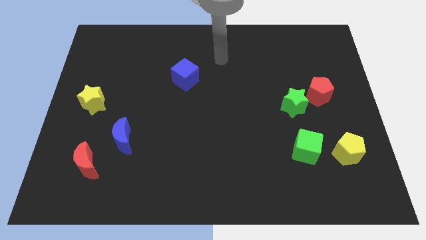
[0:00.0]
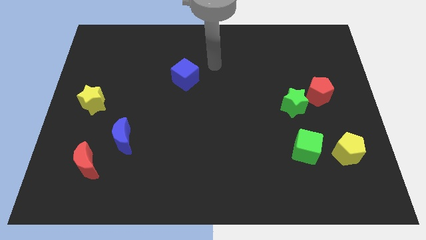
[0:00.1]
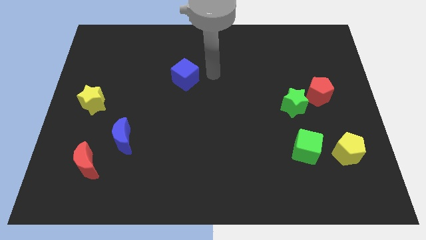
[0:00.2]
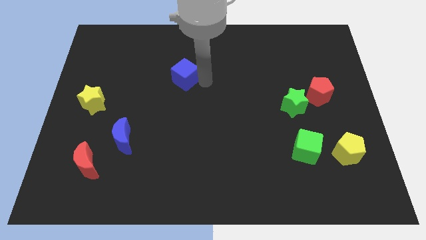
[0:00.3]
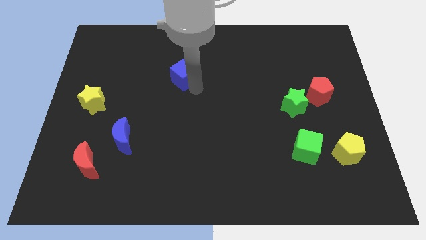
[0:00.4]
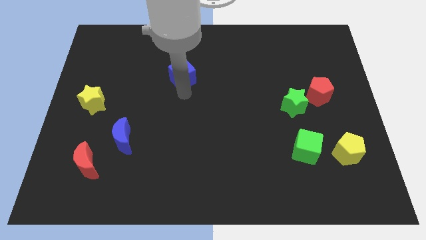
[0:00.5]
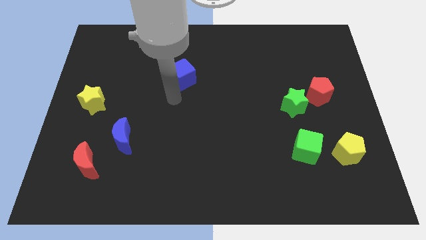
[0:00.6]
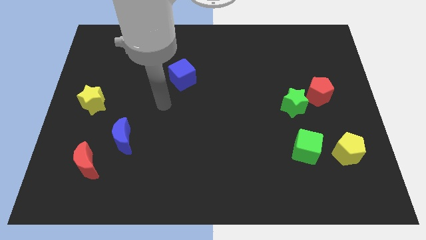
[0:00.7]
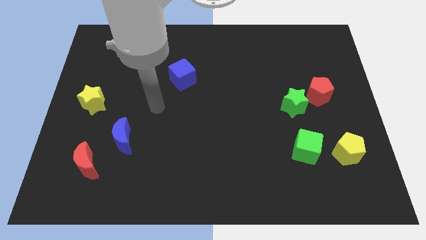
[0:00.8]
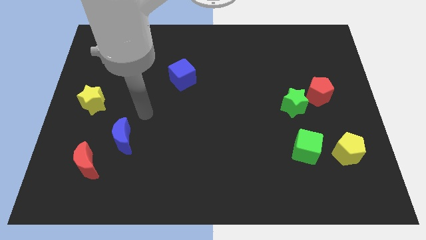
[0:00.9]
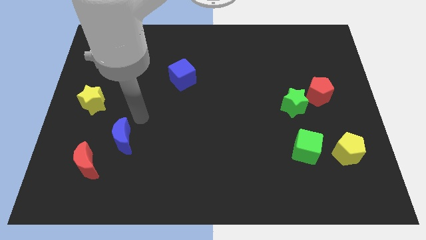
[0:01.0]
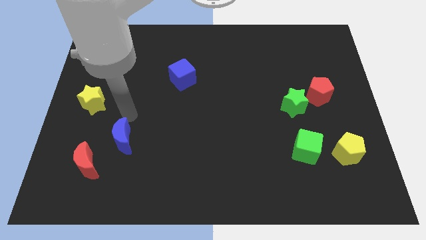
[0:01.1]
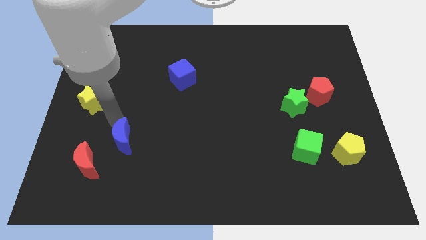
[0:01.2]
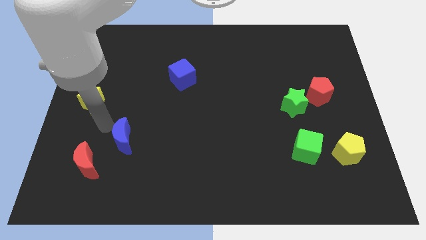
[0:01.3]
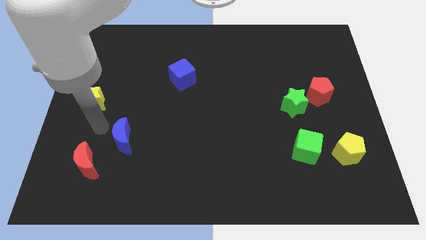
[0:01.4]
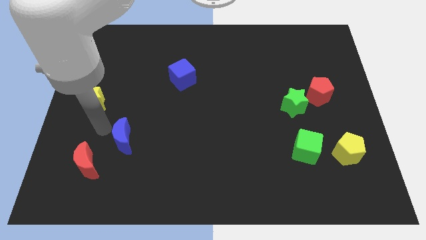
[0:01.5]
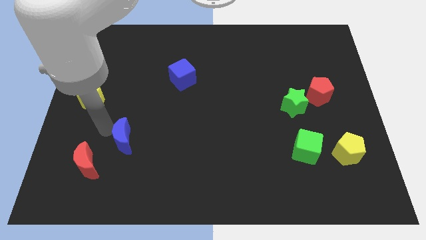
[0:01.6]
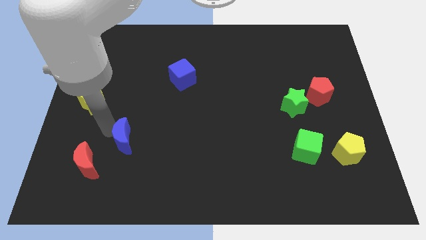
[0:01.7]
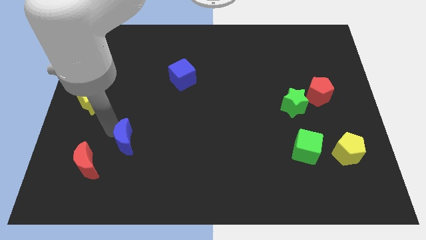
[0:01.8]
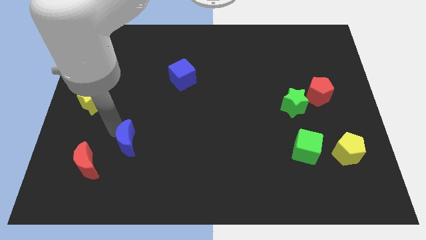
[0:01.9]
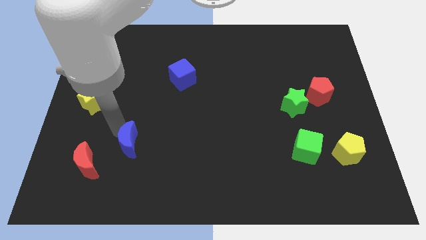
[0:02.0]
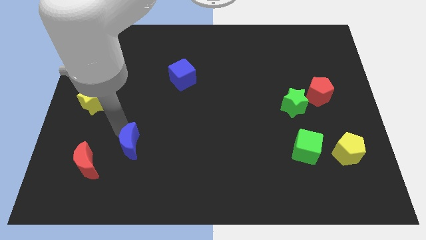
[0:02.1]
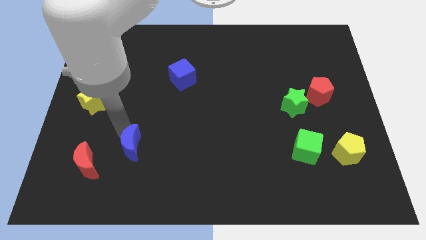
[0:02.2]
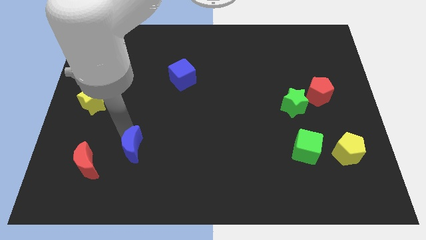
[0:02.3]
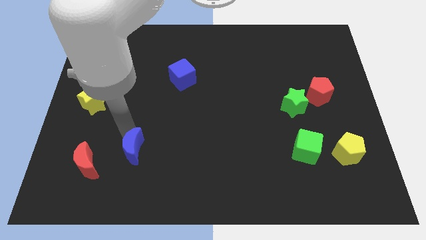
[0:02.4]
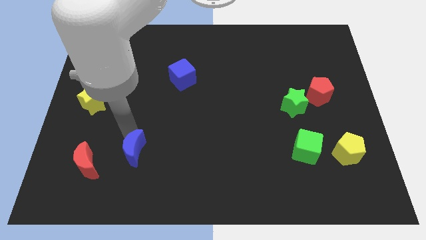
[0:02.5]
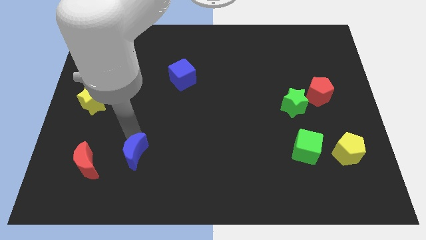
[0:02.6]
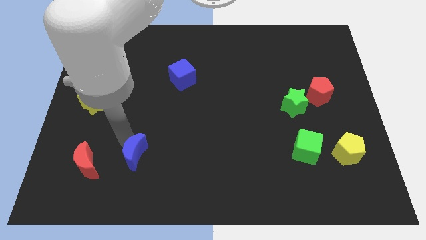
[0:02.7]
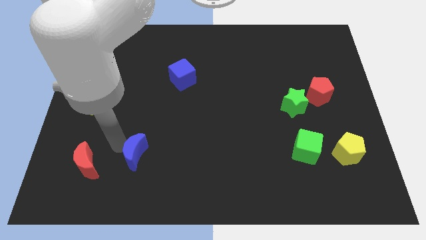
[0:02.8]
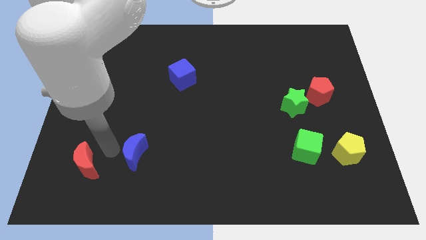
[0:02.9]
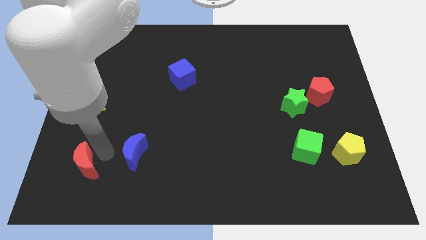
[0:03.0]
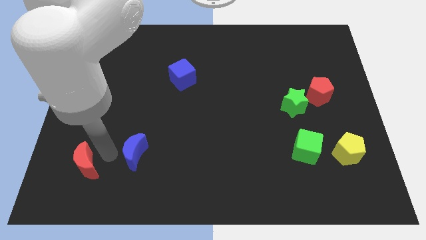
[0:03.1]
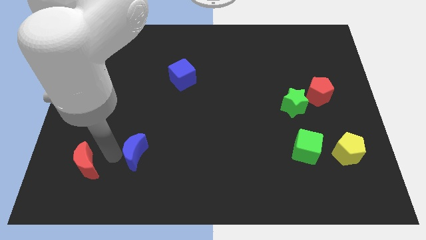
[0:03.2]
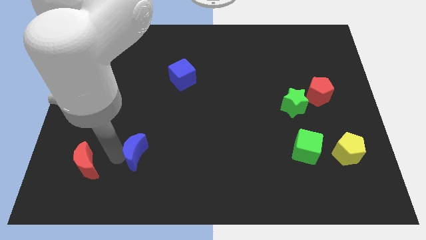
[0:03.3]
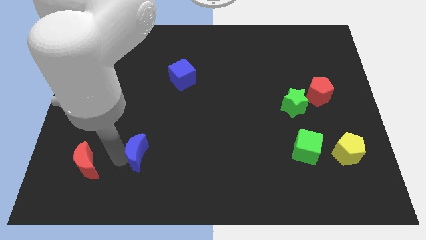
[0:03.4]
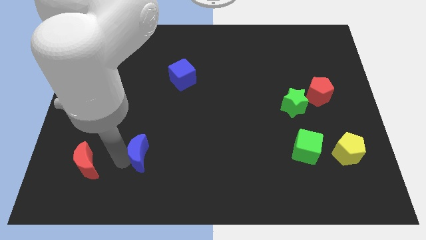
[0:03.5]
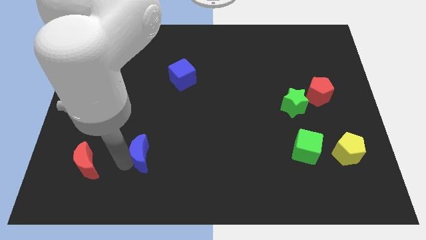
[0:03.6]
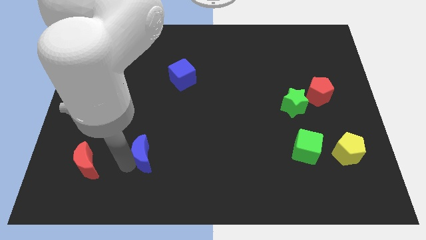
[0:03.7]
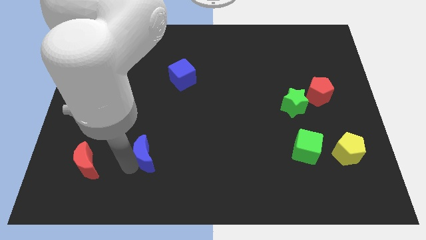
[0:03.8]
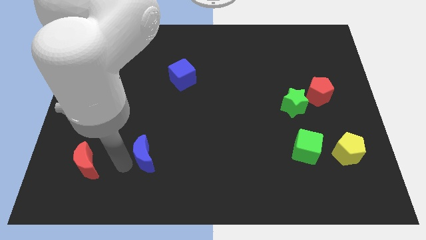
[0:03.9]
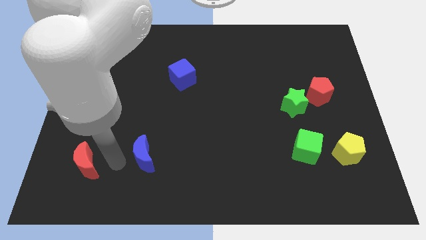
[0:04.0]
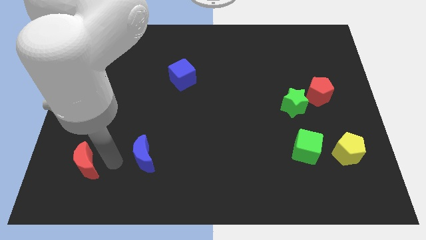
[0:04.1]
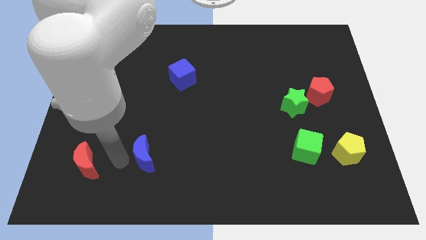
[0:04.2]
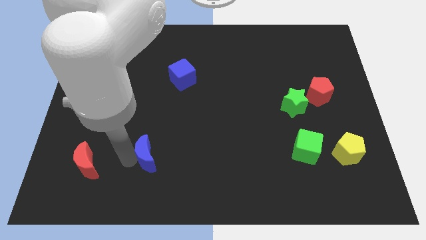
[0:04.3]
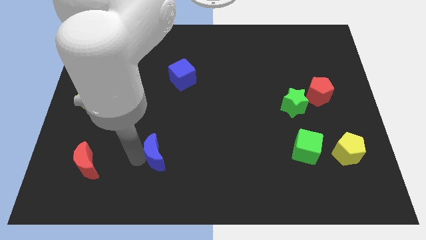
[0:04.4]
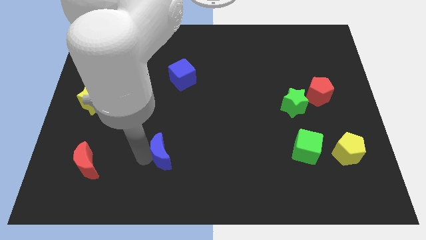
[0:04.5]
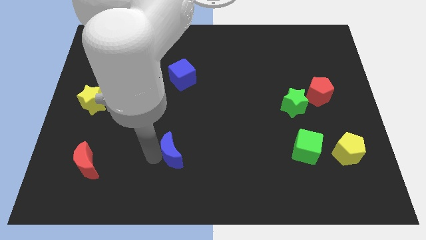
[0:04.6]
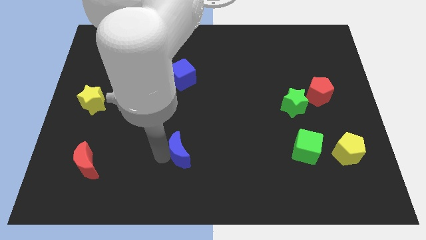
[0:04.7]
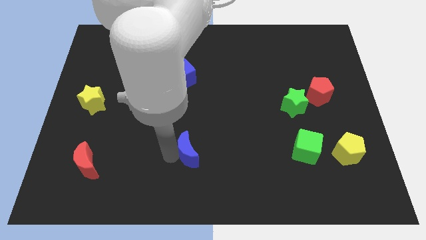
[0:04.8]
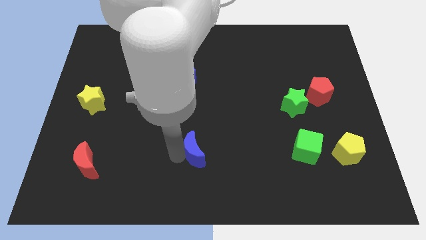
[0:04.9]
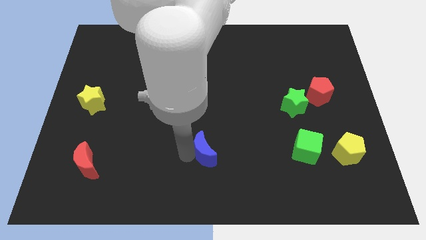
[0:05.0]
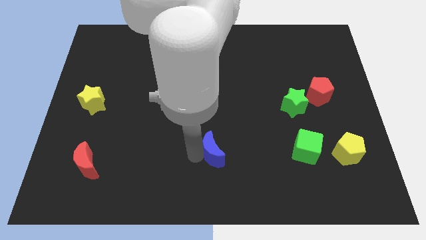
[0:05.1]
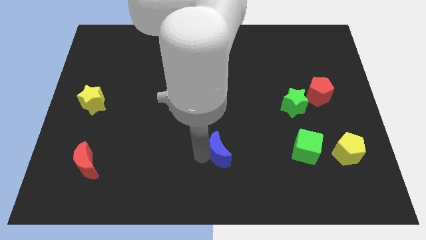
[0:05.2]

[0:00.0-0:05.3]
move the blue moon right

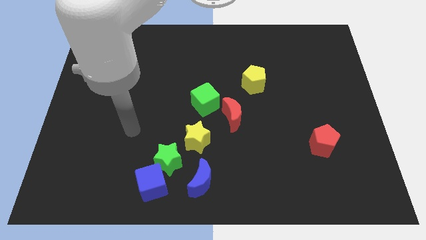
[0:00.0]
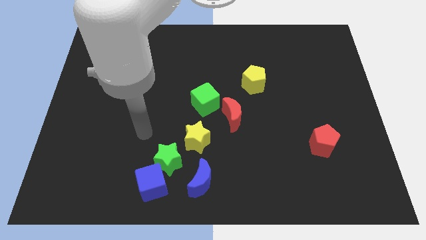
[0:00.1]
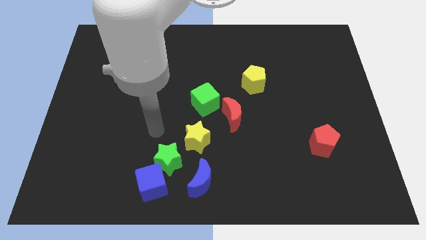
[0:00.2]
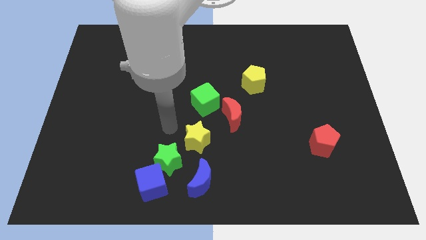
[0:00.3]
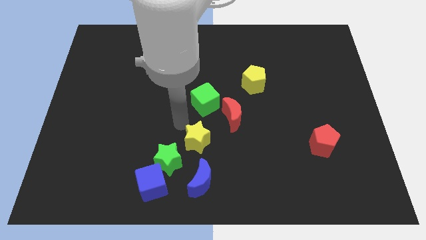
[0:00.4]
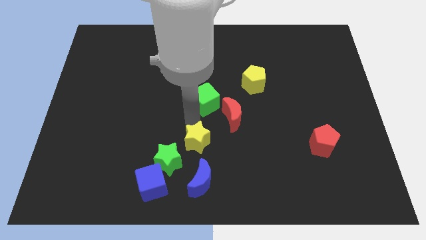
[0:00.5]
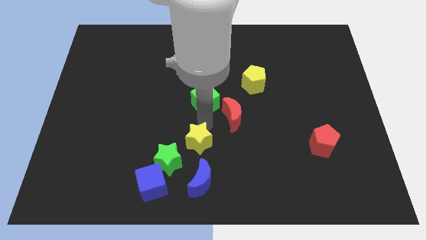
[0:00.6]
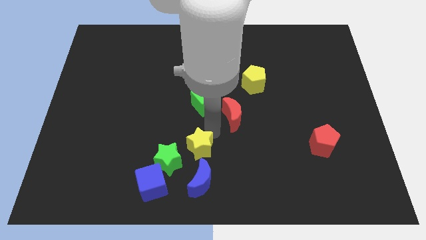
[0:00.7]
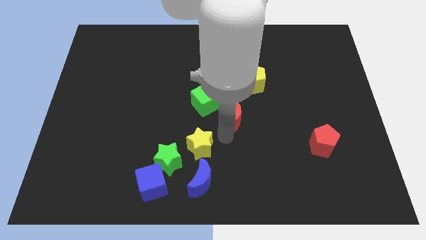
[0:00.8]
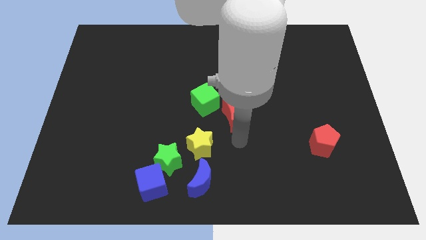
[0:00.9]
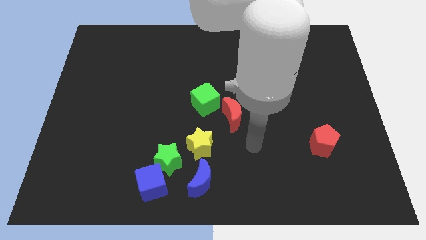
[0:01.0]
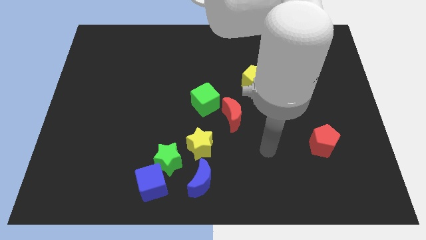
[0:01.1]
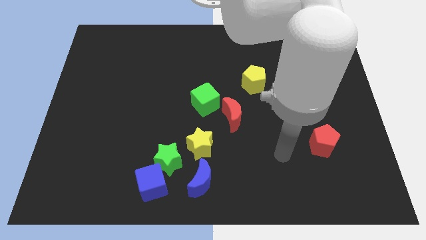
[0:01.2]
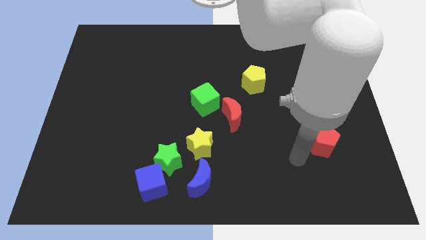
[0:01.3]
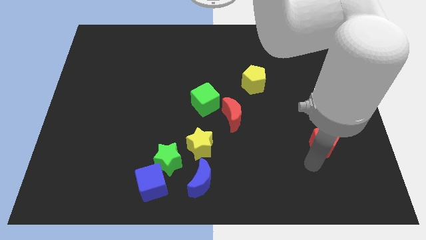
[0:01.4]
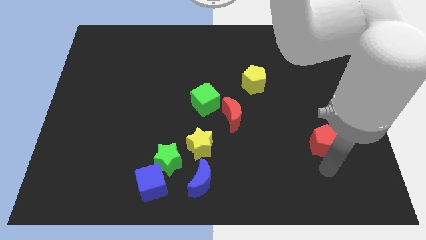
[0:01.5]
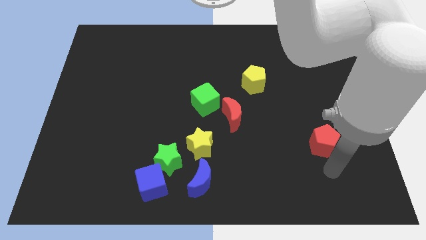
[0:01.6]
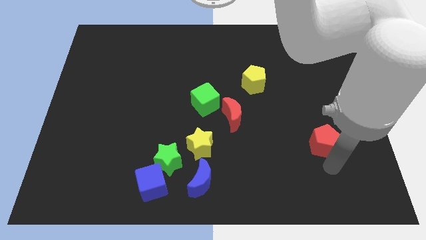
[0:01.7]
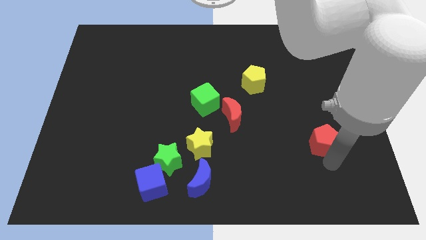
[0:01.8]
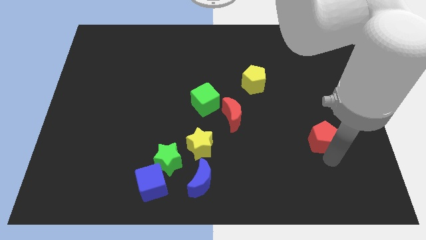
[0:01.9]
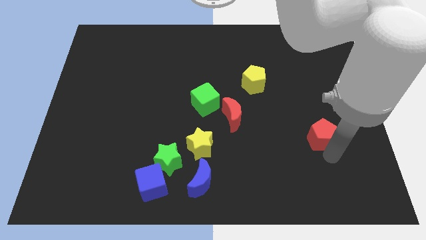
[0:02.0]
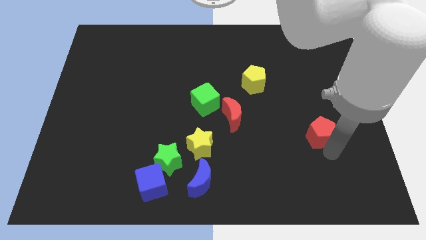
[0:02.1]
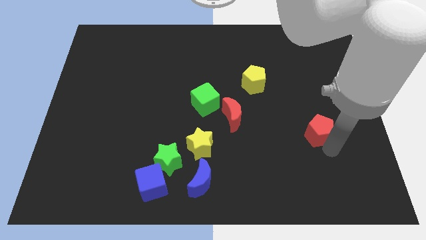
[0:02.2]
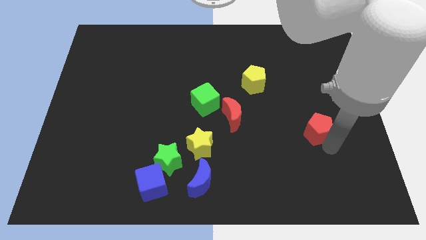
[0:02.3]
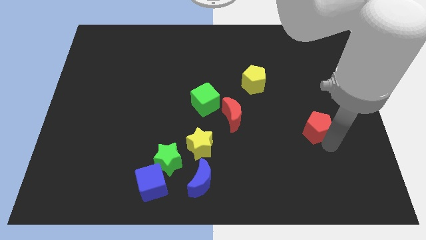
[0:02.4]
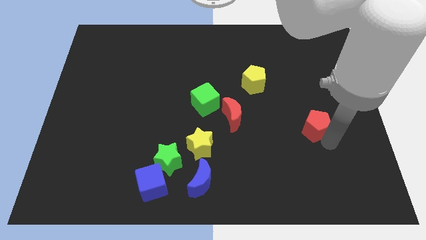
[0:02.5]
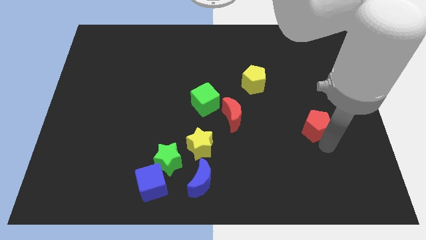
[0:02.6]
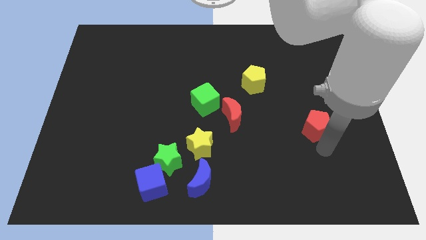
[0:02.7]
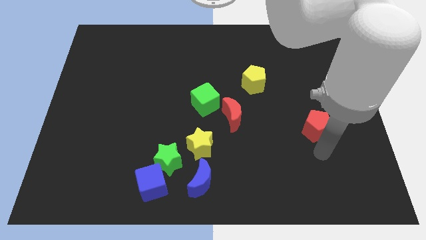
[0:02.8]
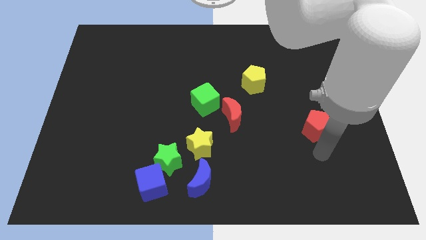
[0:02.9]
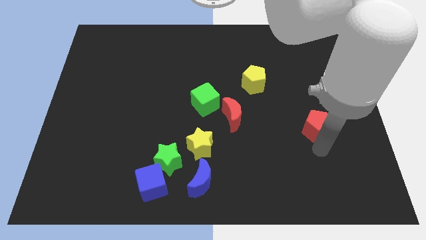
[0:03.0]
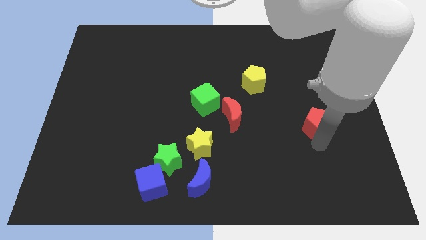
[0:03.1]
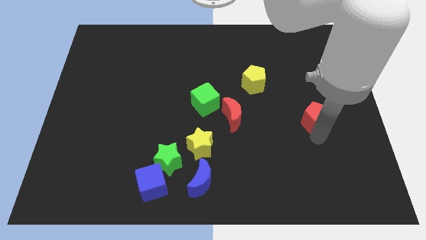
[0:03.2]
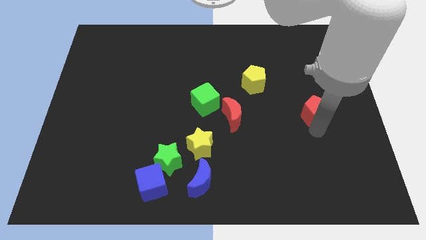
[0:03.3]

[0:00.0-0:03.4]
move the red pentagon upwards slightly
